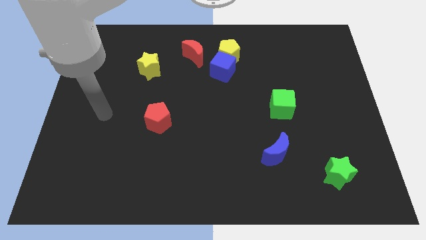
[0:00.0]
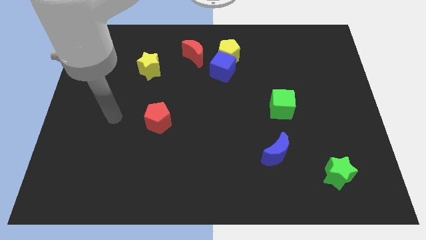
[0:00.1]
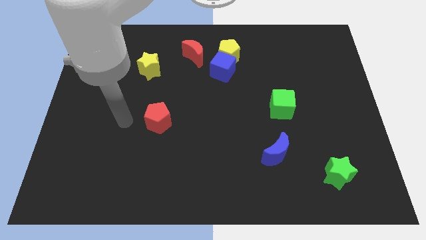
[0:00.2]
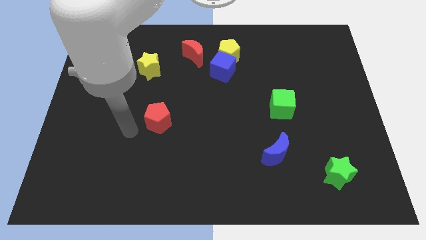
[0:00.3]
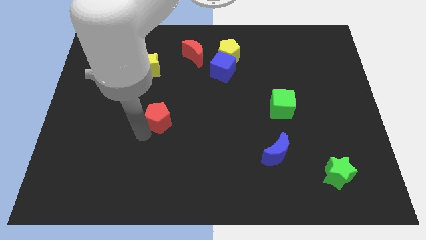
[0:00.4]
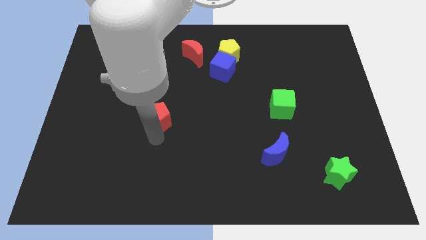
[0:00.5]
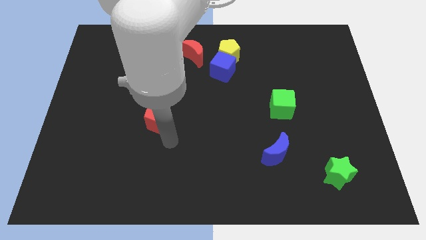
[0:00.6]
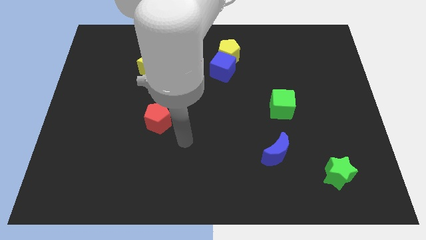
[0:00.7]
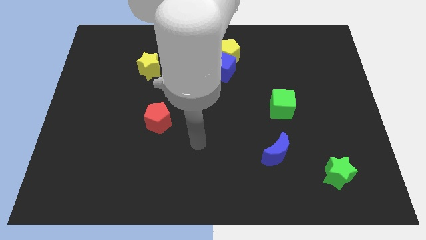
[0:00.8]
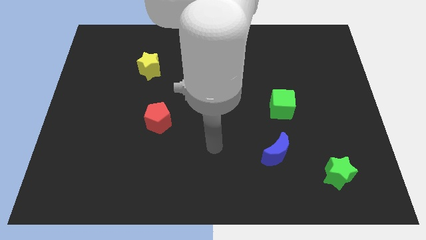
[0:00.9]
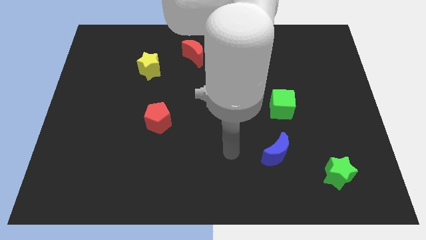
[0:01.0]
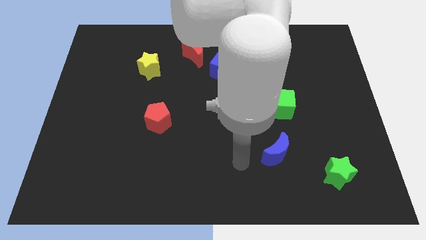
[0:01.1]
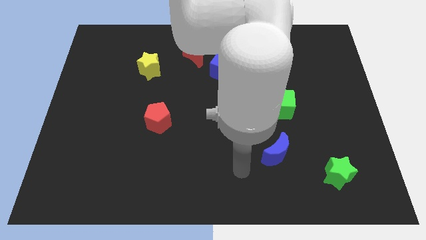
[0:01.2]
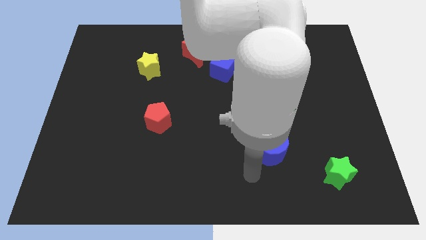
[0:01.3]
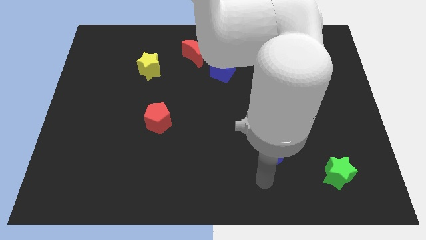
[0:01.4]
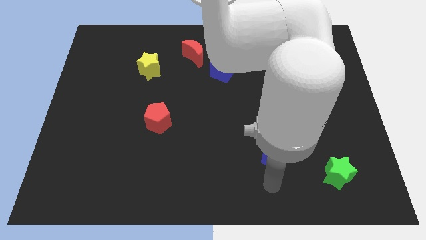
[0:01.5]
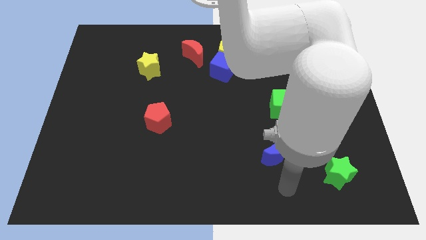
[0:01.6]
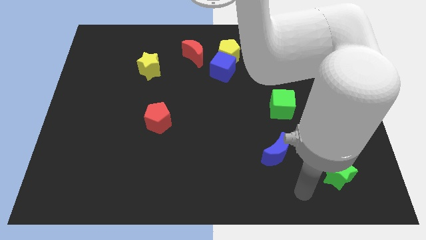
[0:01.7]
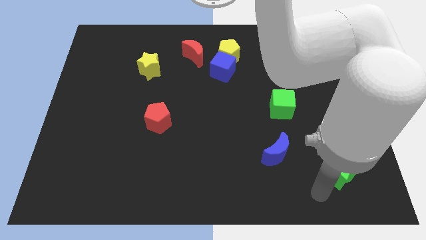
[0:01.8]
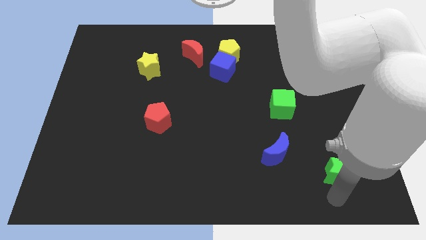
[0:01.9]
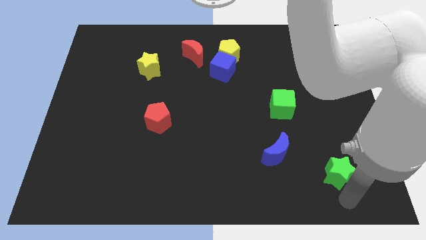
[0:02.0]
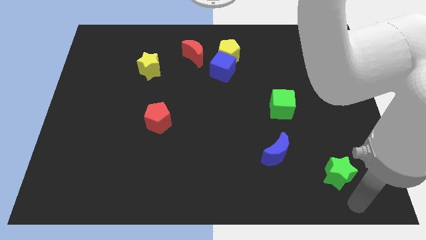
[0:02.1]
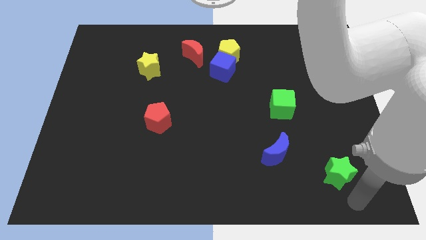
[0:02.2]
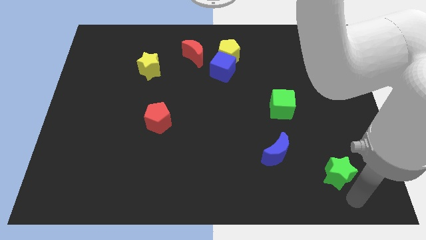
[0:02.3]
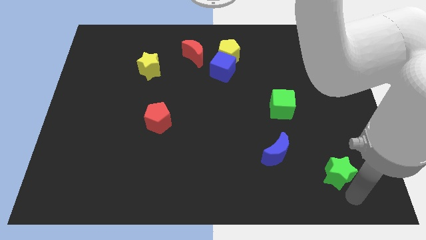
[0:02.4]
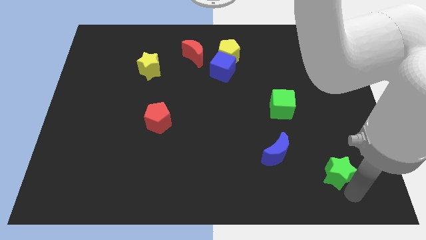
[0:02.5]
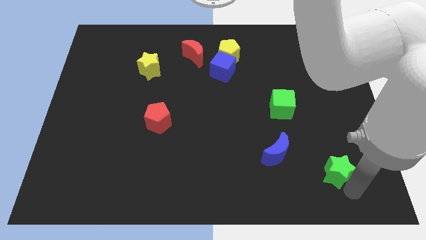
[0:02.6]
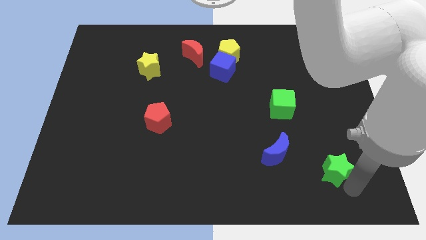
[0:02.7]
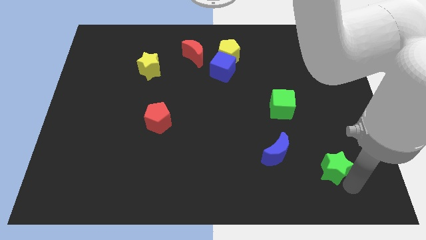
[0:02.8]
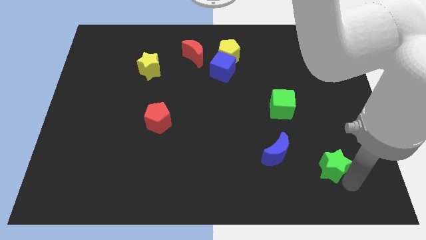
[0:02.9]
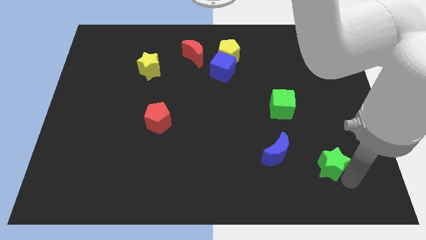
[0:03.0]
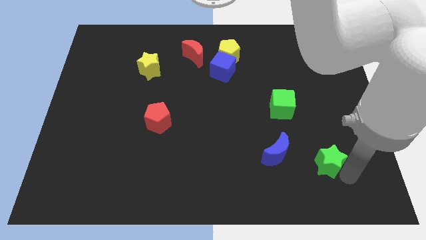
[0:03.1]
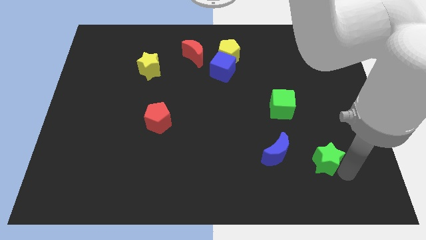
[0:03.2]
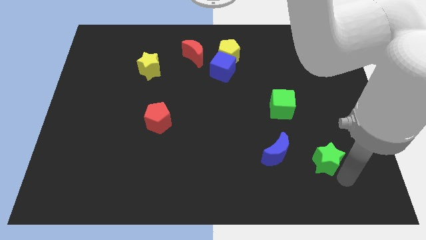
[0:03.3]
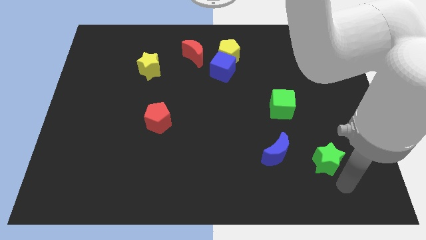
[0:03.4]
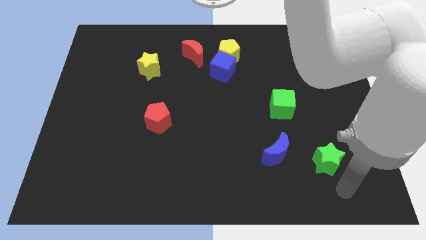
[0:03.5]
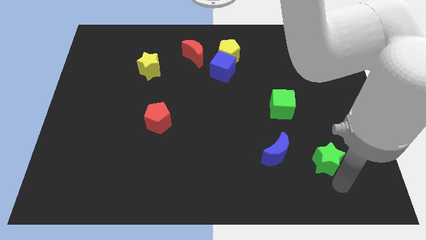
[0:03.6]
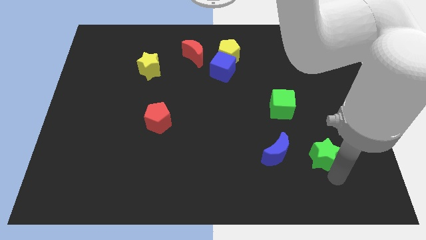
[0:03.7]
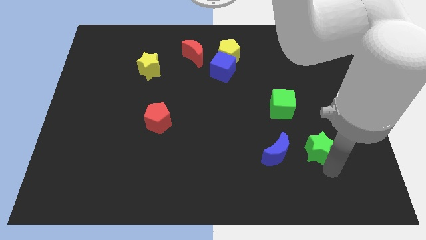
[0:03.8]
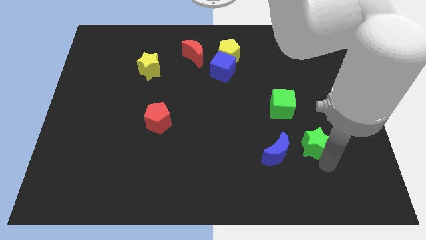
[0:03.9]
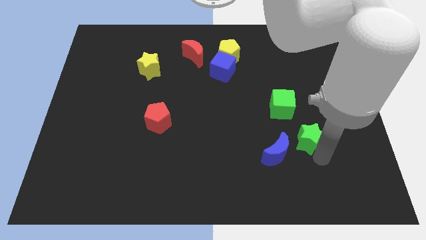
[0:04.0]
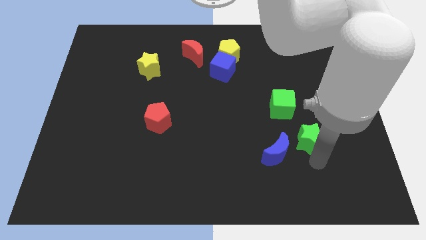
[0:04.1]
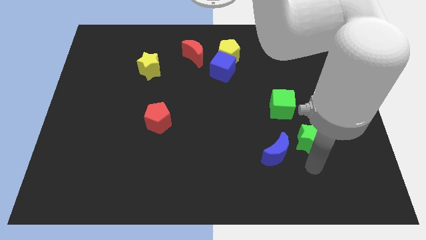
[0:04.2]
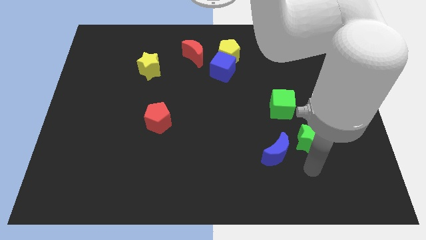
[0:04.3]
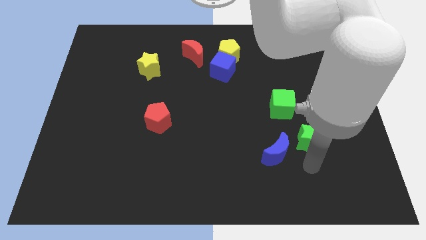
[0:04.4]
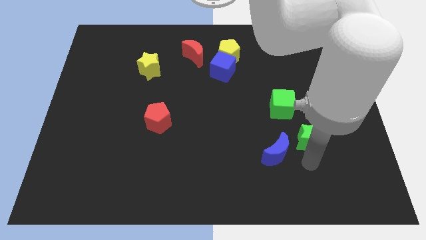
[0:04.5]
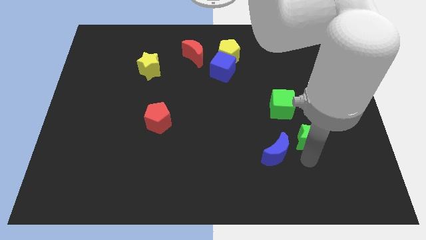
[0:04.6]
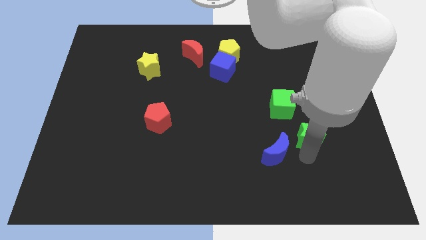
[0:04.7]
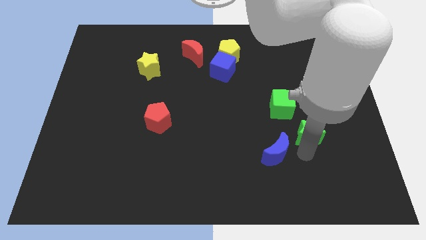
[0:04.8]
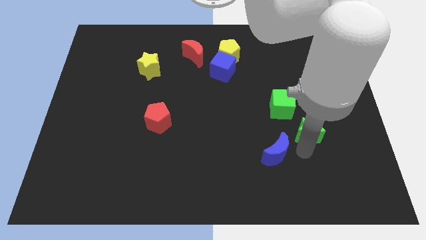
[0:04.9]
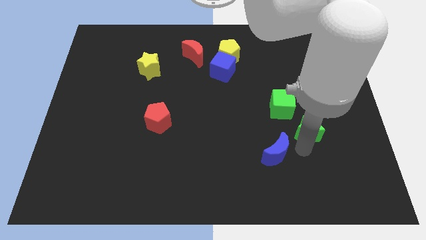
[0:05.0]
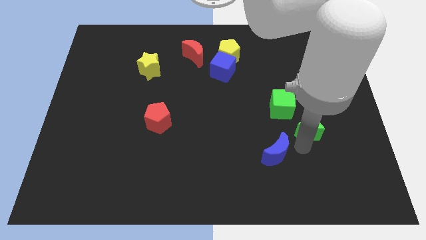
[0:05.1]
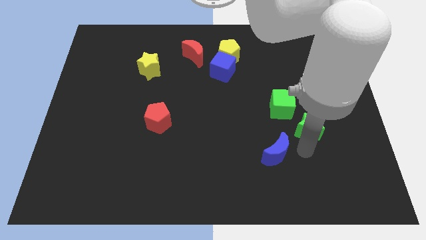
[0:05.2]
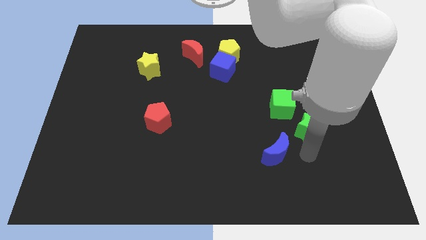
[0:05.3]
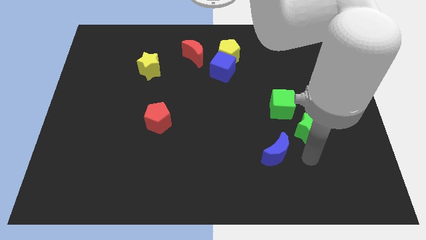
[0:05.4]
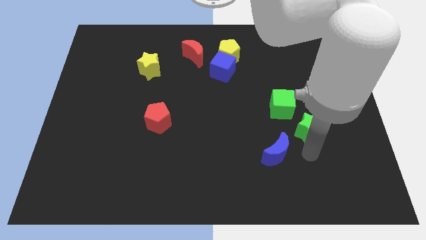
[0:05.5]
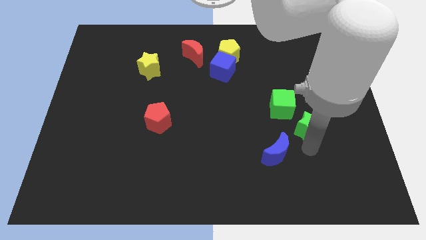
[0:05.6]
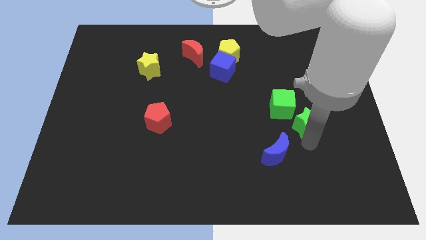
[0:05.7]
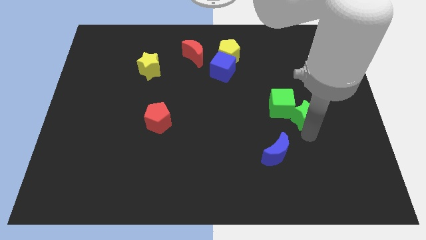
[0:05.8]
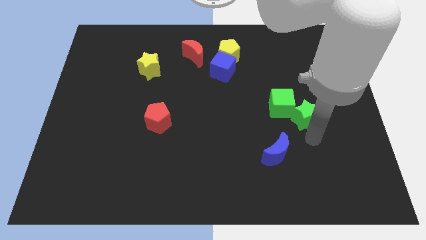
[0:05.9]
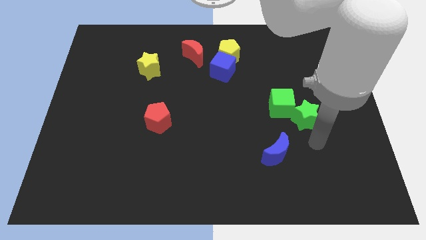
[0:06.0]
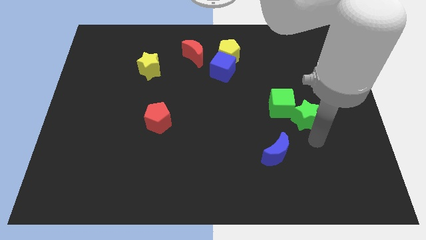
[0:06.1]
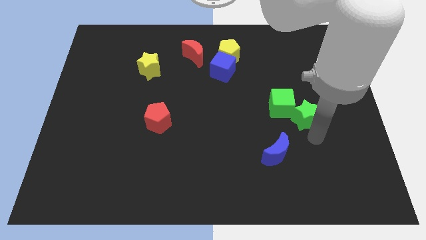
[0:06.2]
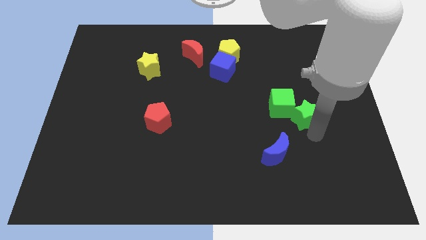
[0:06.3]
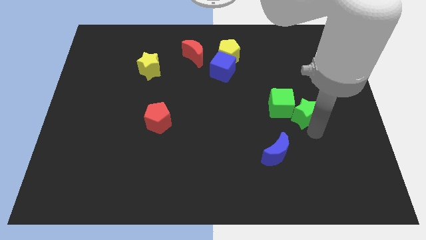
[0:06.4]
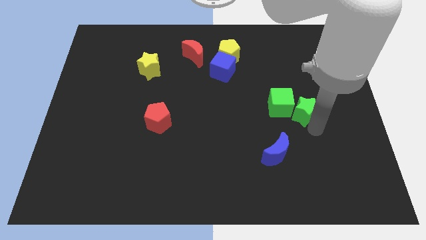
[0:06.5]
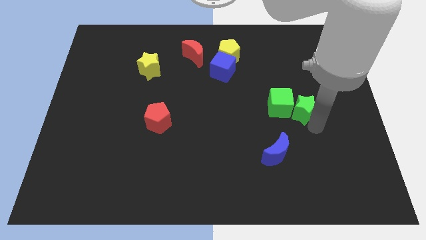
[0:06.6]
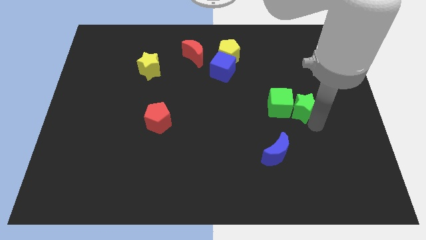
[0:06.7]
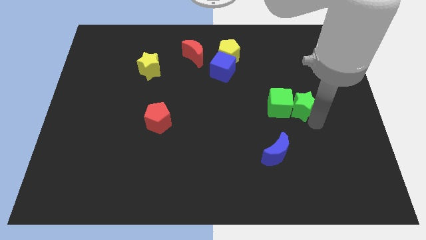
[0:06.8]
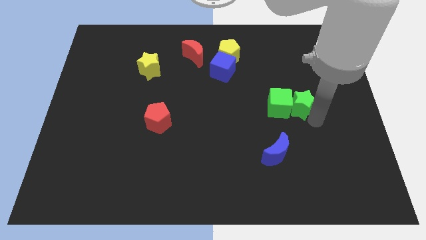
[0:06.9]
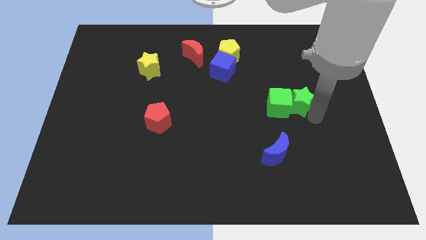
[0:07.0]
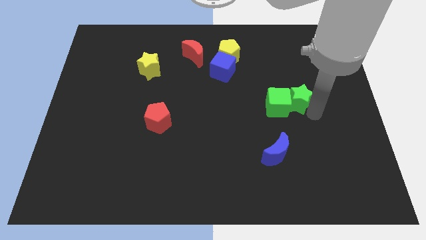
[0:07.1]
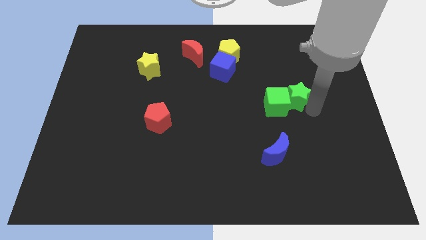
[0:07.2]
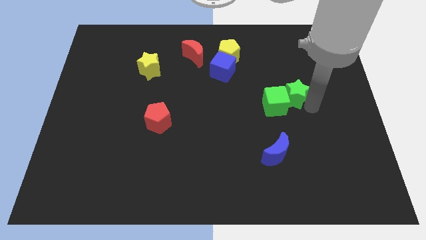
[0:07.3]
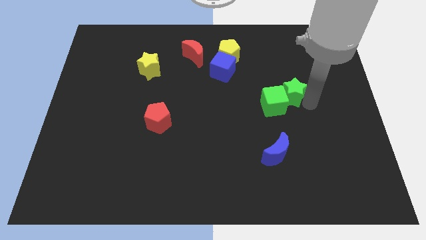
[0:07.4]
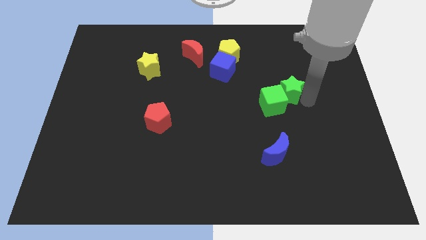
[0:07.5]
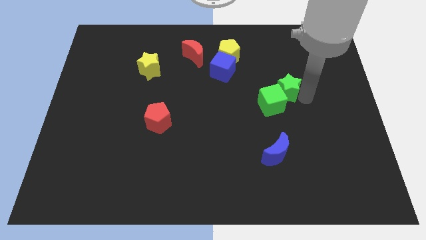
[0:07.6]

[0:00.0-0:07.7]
put the green star to the top side of the green cube
